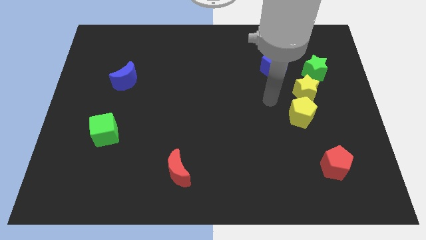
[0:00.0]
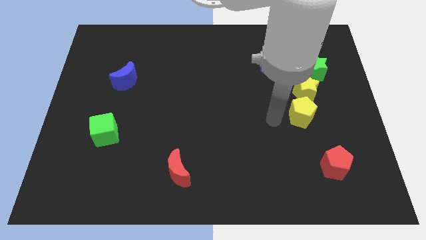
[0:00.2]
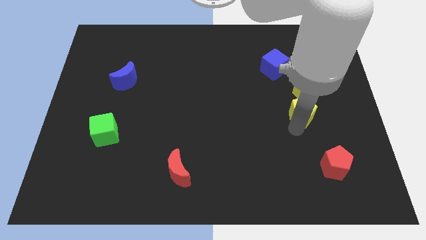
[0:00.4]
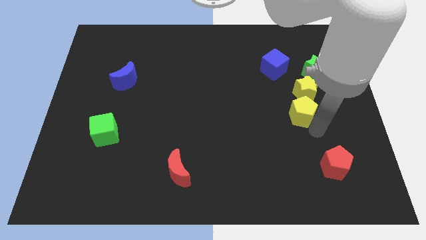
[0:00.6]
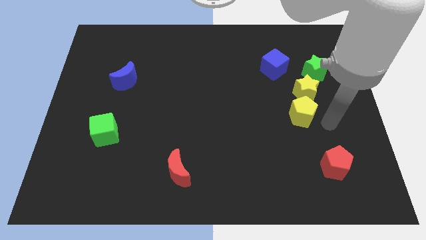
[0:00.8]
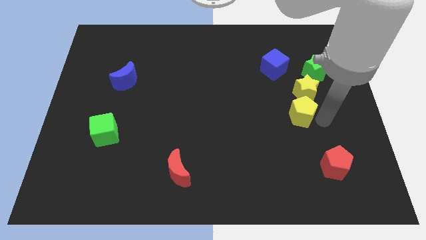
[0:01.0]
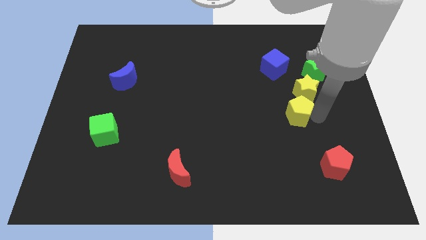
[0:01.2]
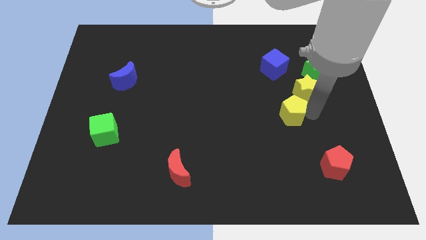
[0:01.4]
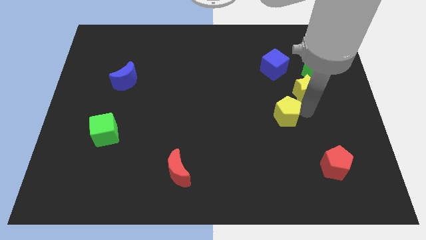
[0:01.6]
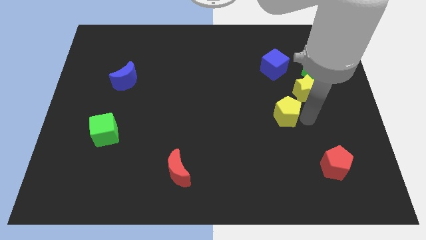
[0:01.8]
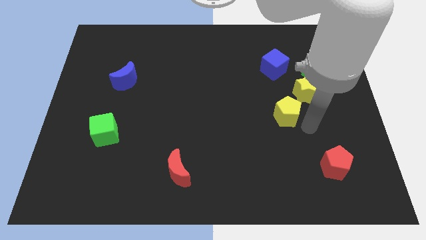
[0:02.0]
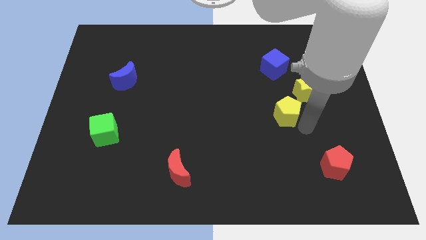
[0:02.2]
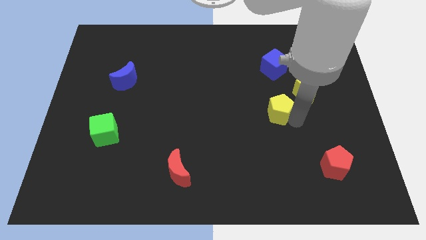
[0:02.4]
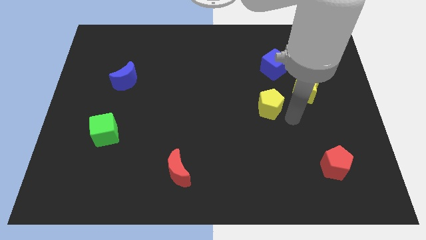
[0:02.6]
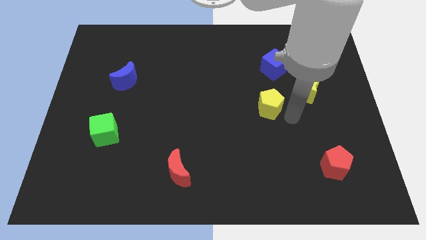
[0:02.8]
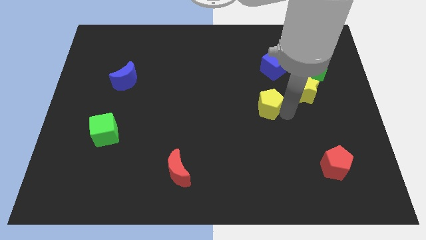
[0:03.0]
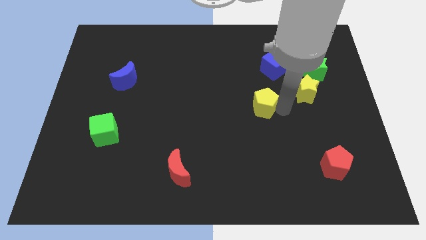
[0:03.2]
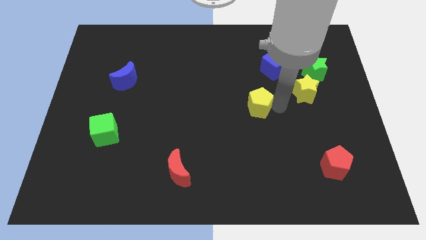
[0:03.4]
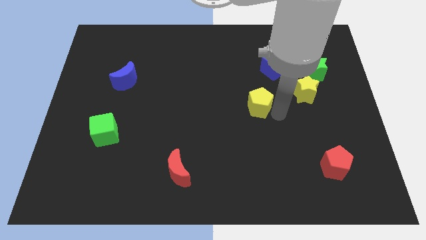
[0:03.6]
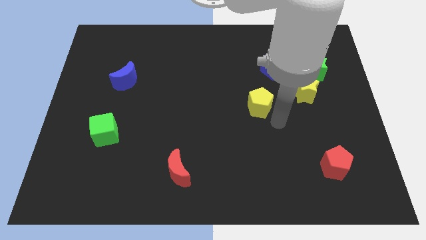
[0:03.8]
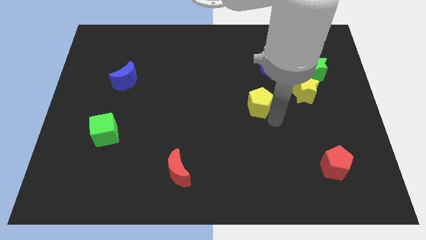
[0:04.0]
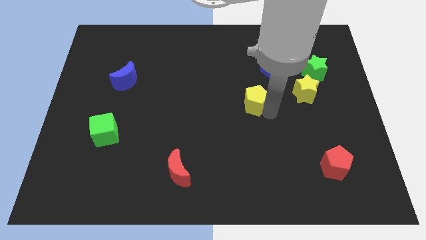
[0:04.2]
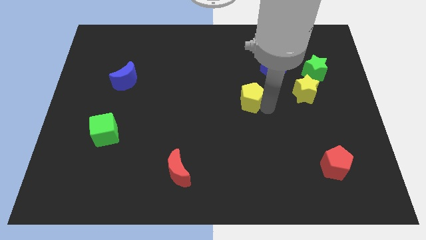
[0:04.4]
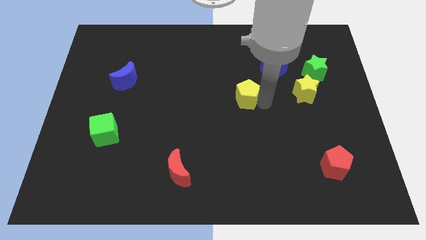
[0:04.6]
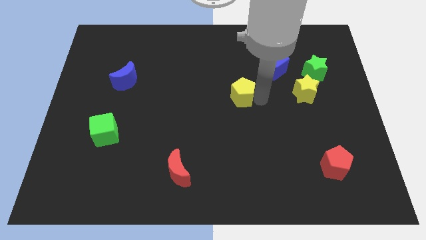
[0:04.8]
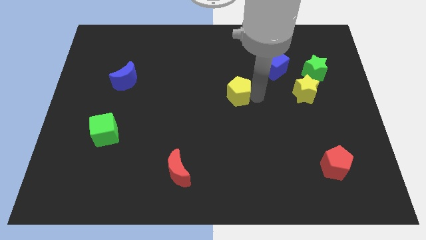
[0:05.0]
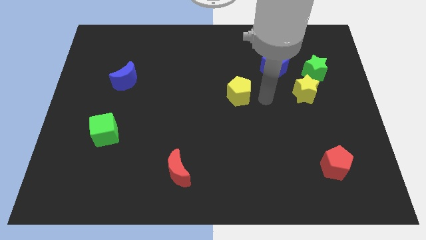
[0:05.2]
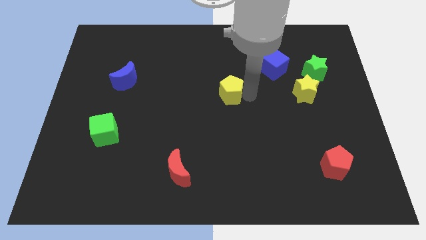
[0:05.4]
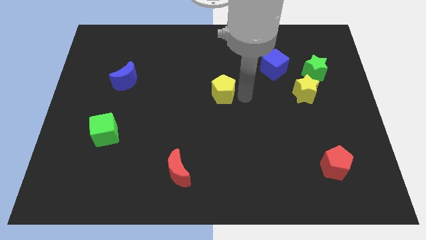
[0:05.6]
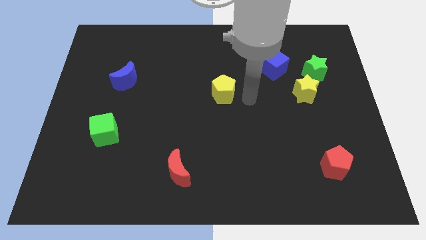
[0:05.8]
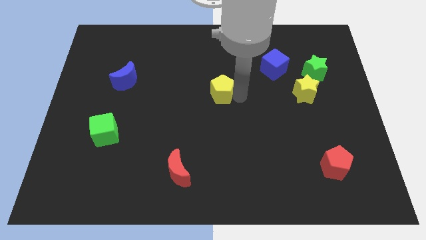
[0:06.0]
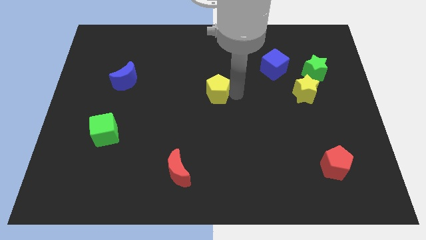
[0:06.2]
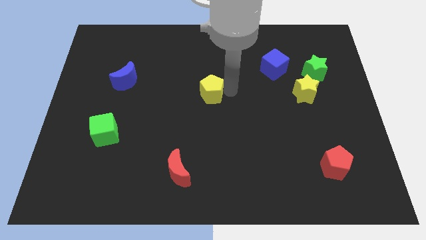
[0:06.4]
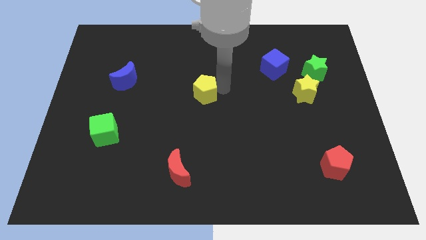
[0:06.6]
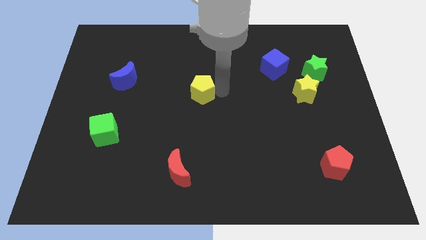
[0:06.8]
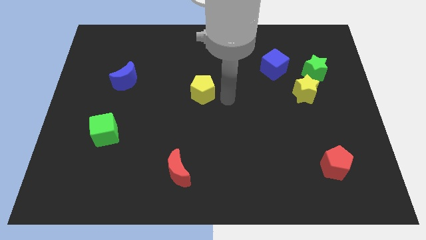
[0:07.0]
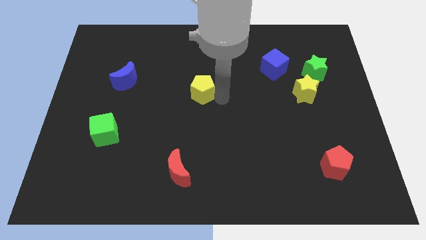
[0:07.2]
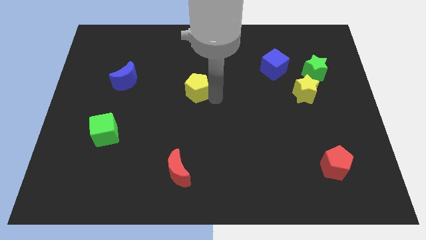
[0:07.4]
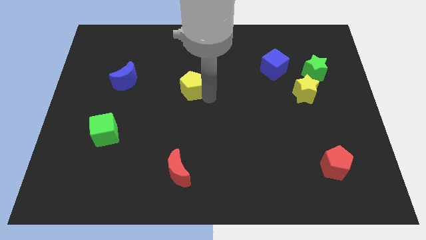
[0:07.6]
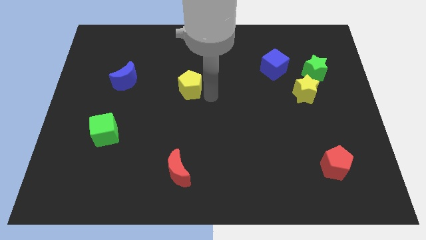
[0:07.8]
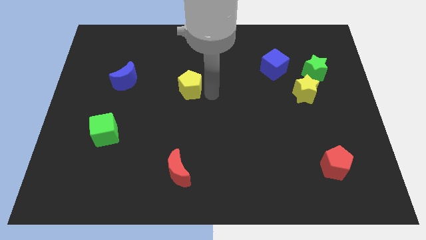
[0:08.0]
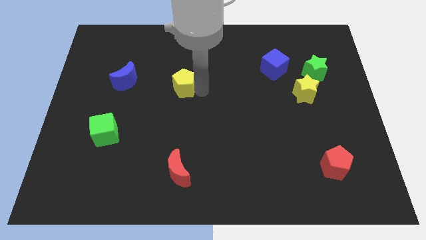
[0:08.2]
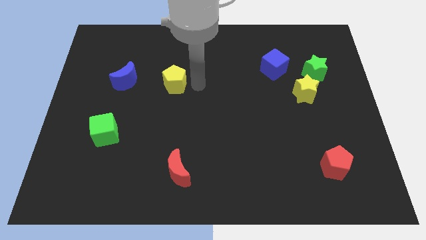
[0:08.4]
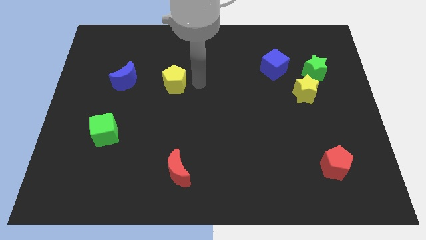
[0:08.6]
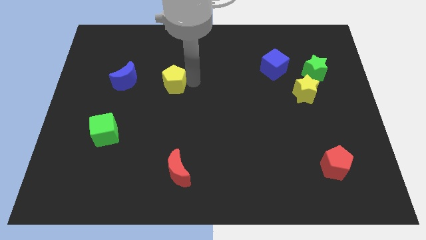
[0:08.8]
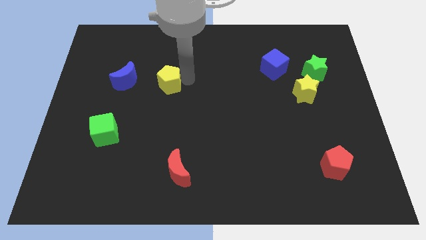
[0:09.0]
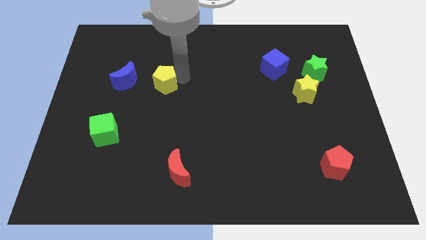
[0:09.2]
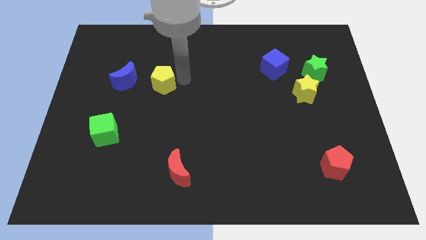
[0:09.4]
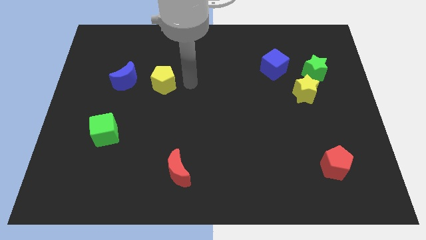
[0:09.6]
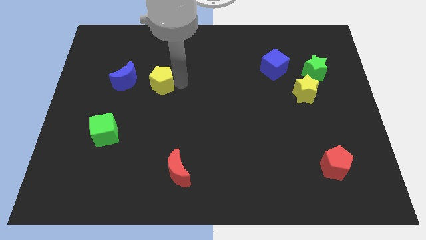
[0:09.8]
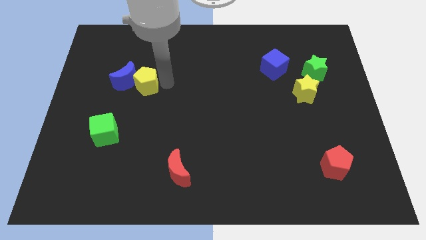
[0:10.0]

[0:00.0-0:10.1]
put the yellow pentagon close to the blue moon

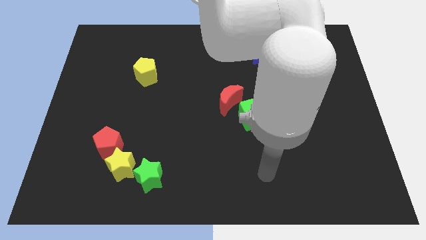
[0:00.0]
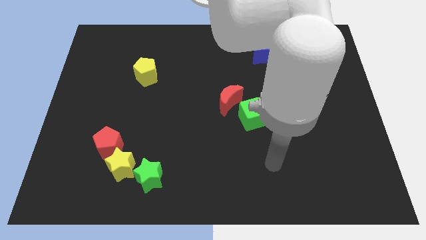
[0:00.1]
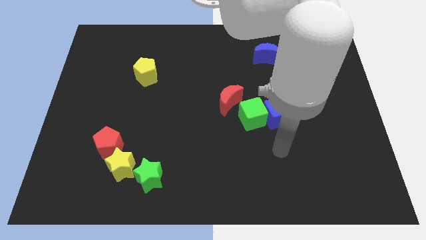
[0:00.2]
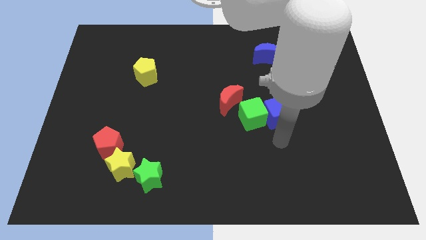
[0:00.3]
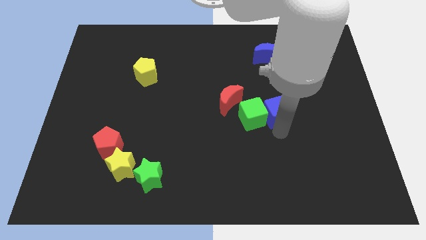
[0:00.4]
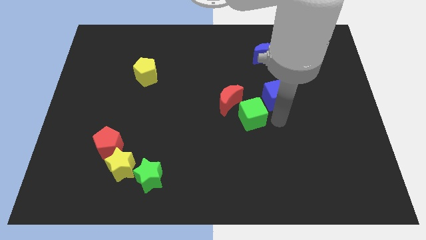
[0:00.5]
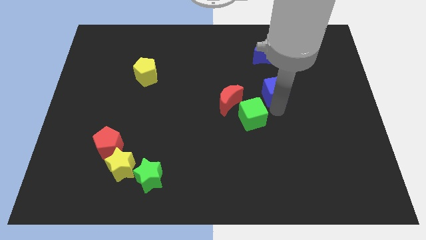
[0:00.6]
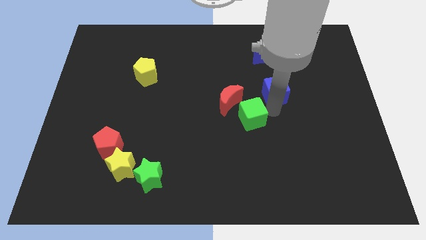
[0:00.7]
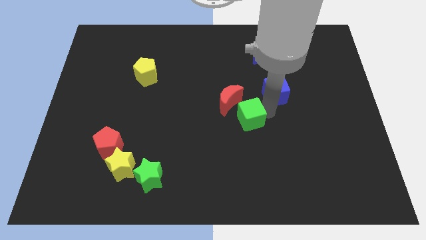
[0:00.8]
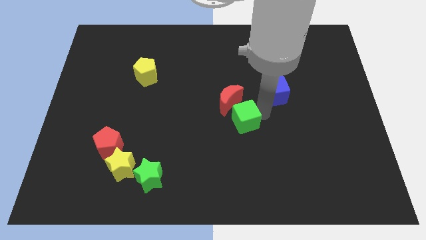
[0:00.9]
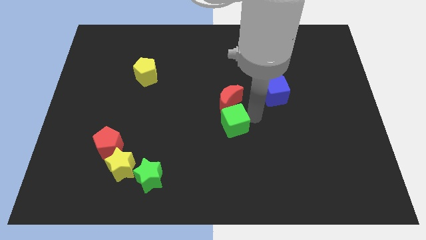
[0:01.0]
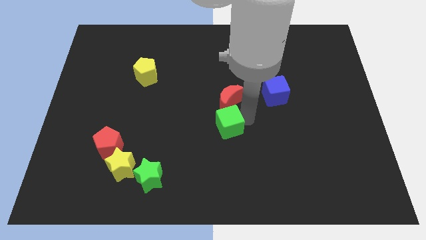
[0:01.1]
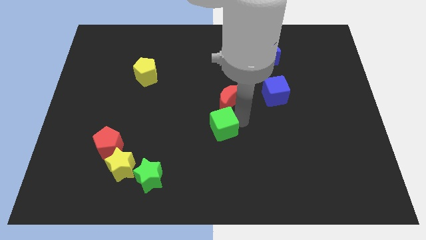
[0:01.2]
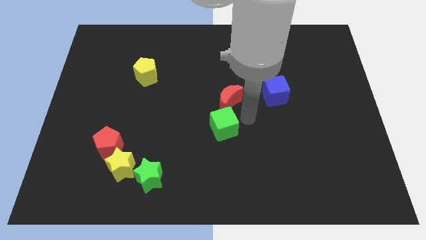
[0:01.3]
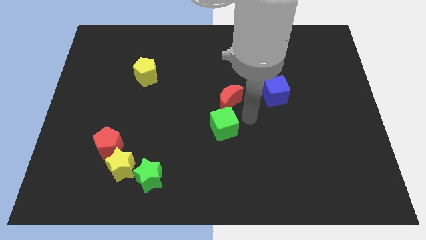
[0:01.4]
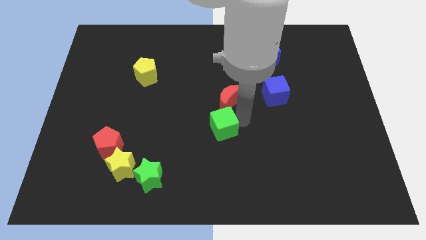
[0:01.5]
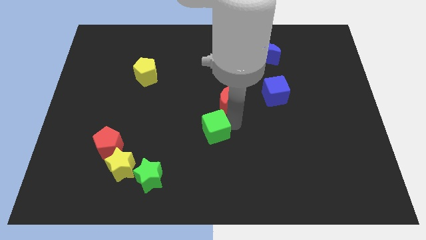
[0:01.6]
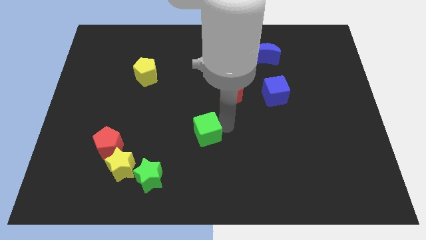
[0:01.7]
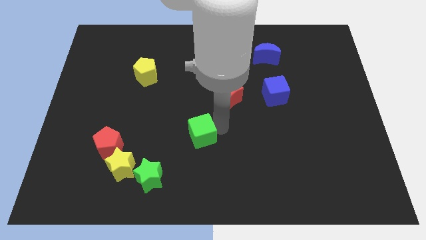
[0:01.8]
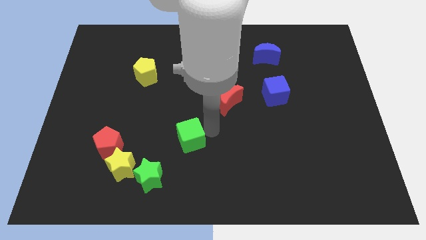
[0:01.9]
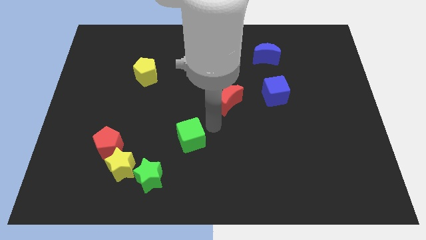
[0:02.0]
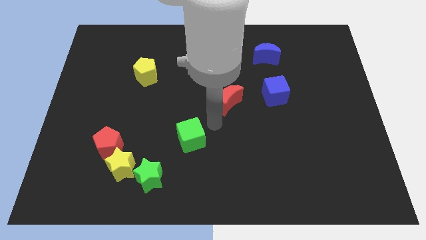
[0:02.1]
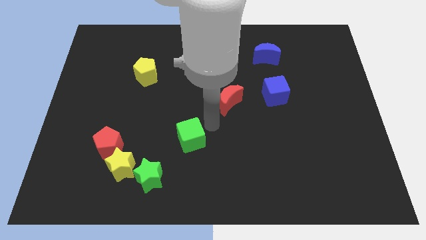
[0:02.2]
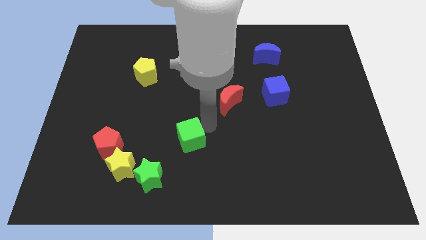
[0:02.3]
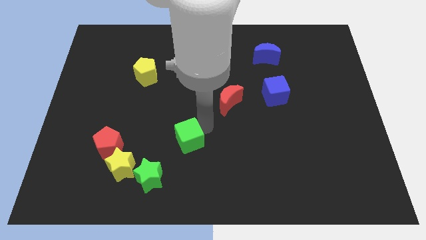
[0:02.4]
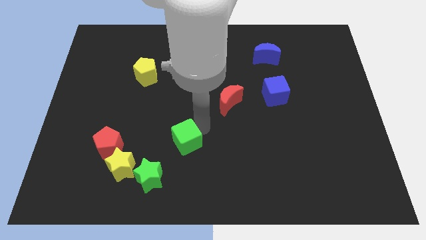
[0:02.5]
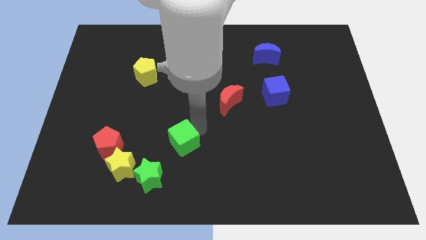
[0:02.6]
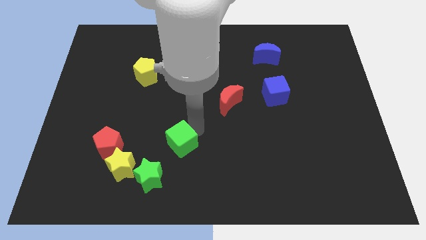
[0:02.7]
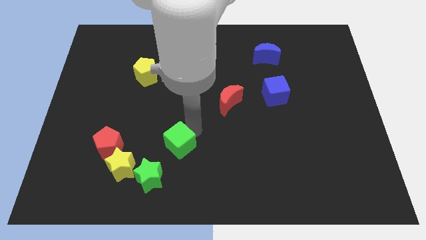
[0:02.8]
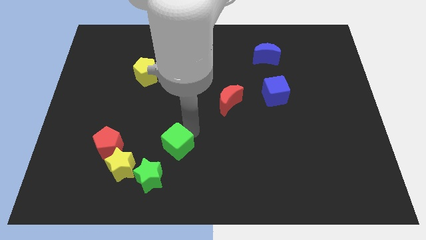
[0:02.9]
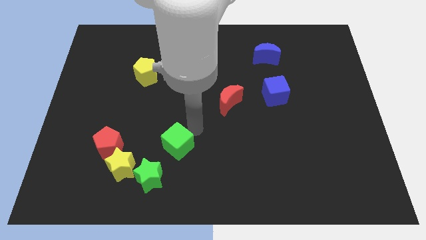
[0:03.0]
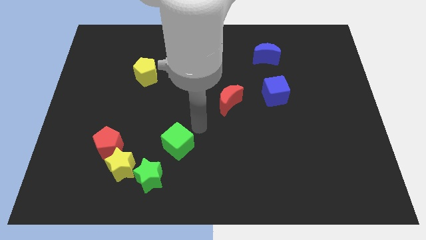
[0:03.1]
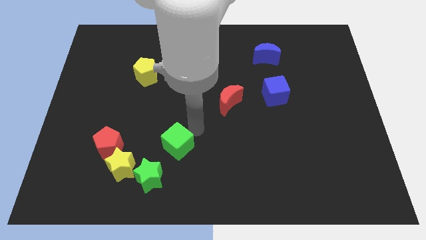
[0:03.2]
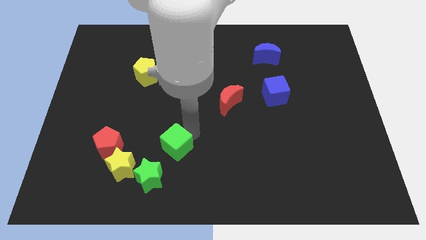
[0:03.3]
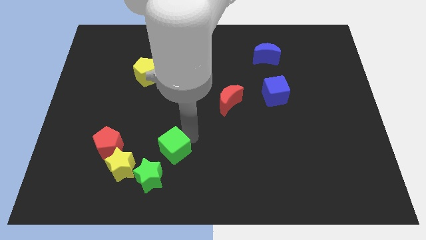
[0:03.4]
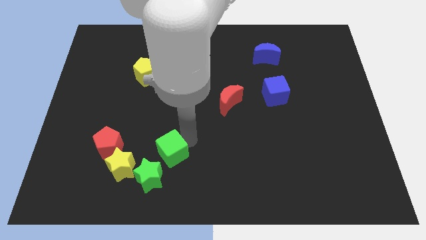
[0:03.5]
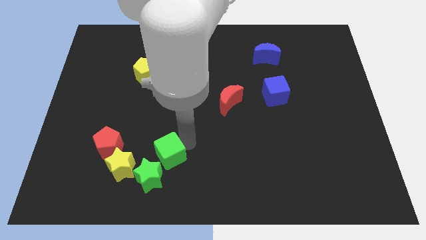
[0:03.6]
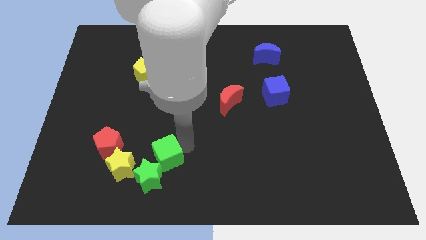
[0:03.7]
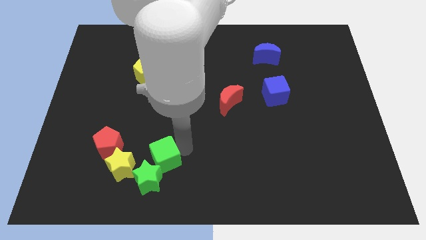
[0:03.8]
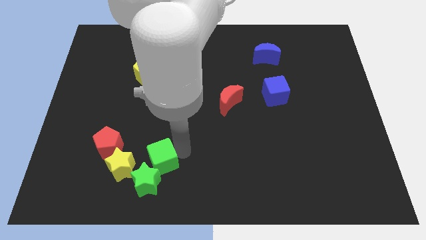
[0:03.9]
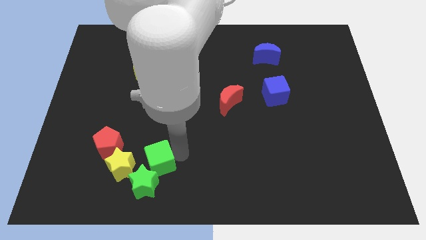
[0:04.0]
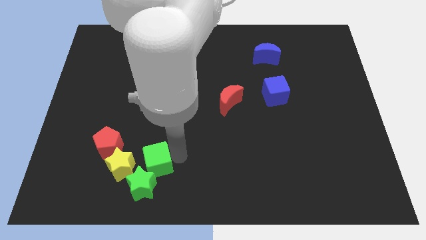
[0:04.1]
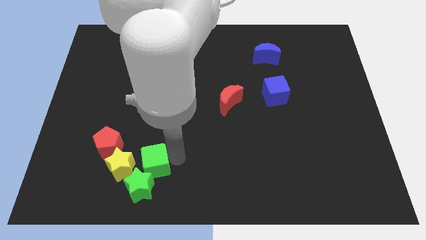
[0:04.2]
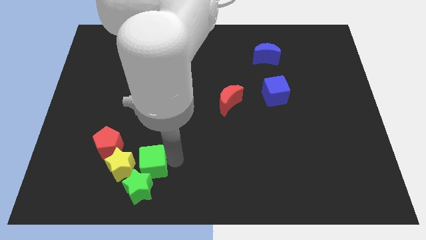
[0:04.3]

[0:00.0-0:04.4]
put the green cube to the yellow star
